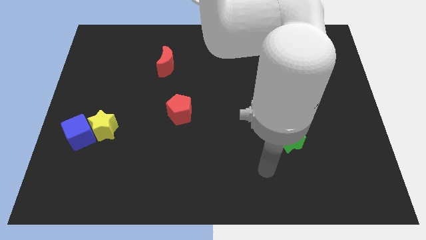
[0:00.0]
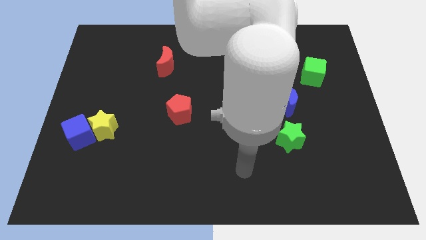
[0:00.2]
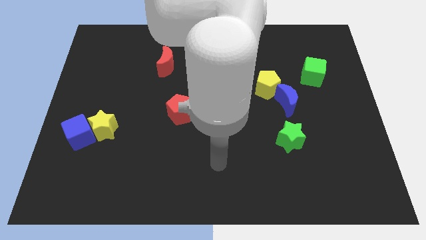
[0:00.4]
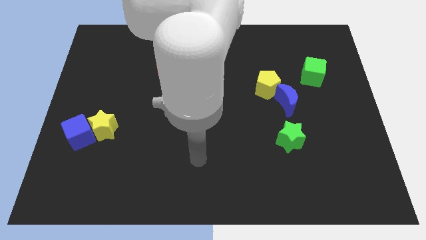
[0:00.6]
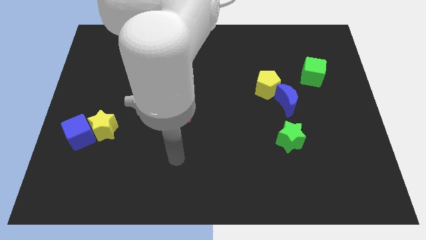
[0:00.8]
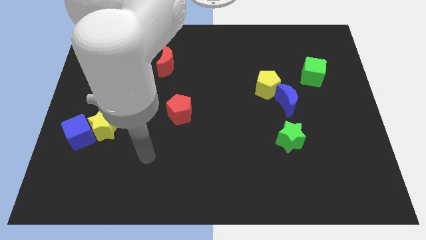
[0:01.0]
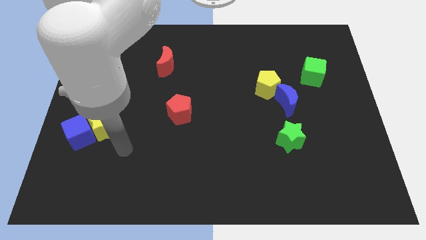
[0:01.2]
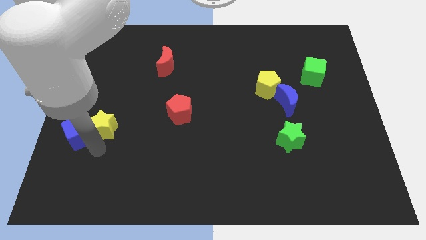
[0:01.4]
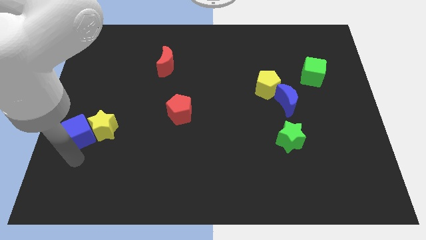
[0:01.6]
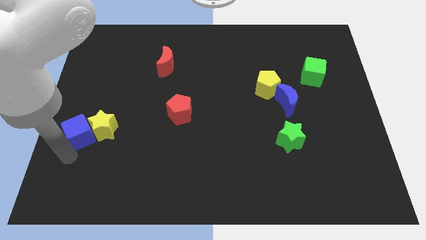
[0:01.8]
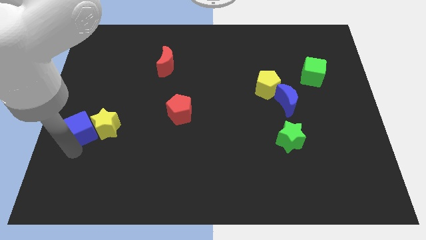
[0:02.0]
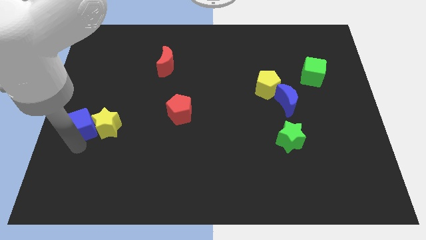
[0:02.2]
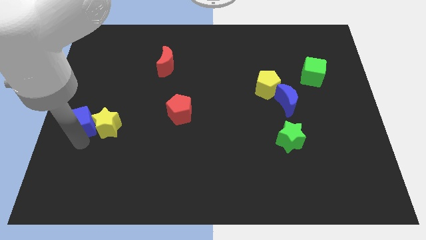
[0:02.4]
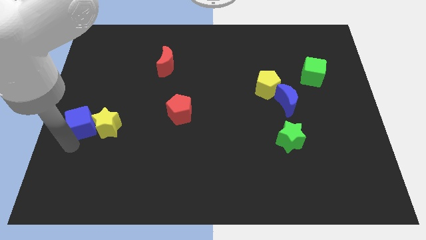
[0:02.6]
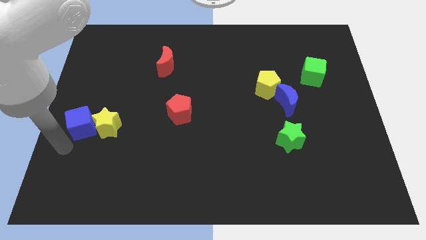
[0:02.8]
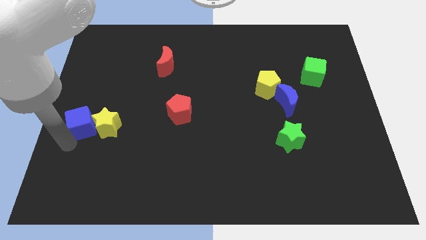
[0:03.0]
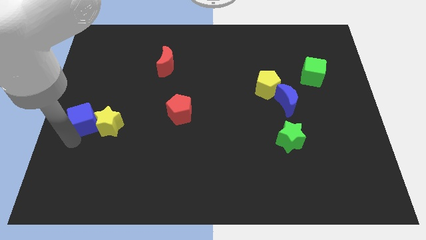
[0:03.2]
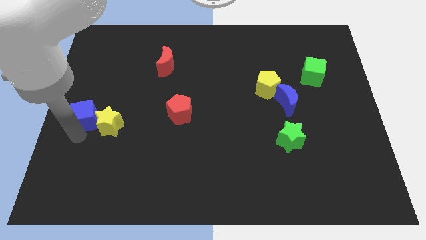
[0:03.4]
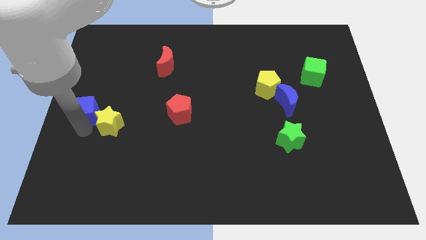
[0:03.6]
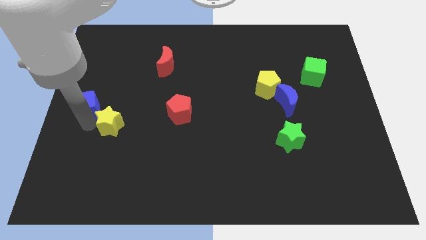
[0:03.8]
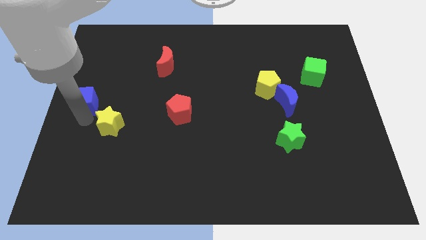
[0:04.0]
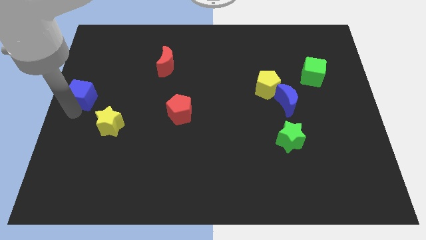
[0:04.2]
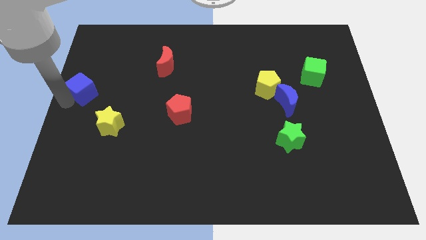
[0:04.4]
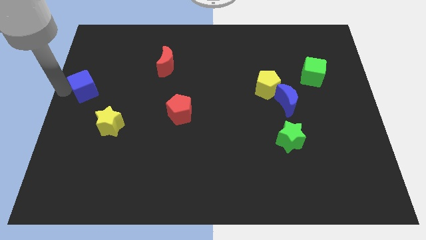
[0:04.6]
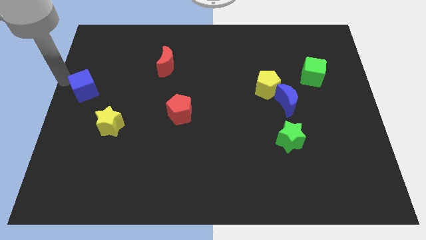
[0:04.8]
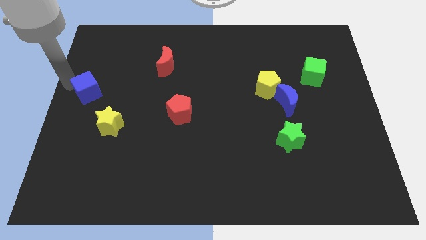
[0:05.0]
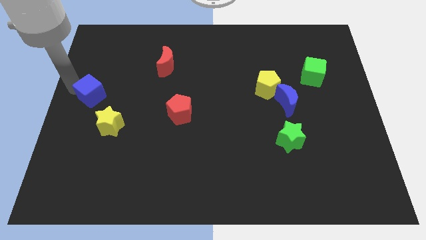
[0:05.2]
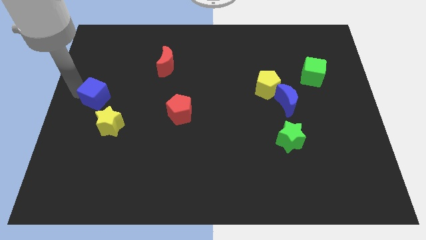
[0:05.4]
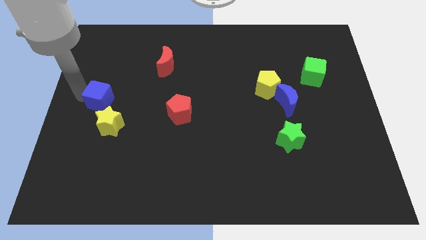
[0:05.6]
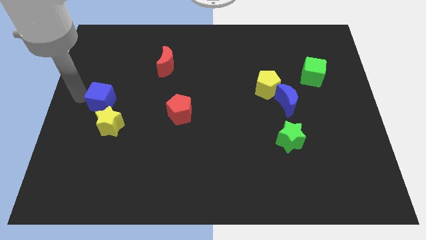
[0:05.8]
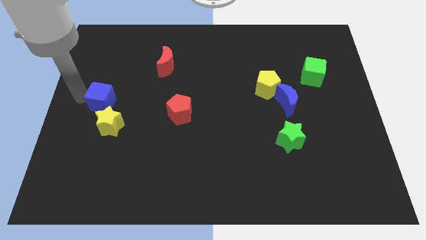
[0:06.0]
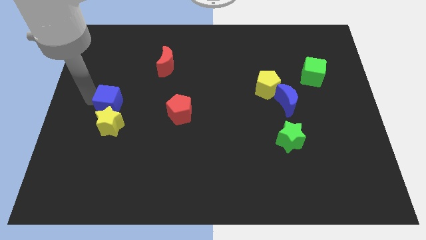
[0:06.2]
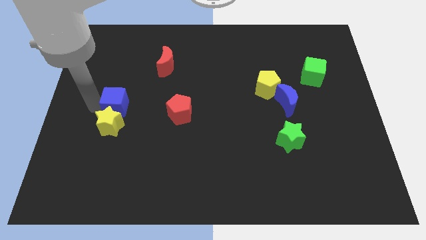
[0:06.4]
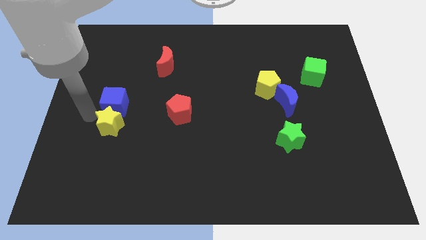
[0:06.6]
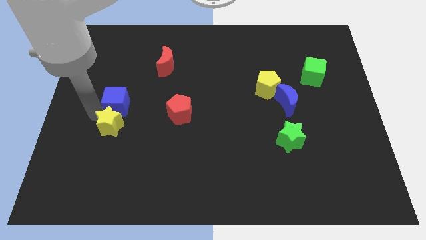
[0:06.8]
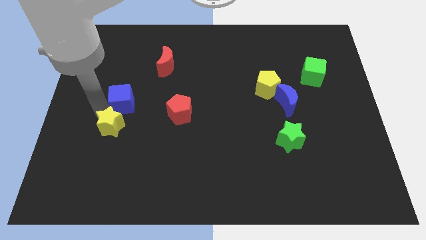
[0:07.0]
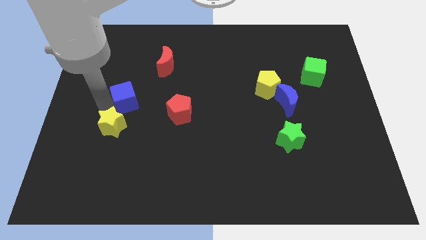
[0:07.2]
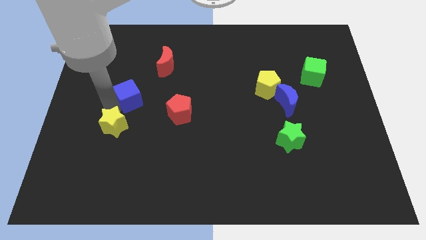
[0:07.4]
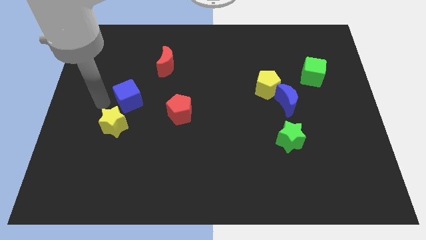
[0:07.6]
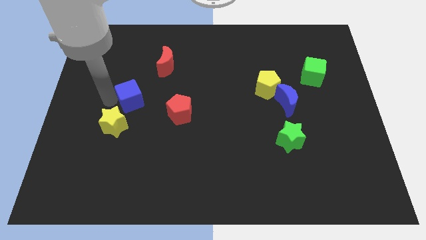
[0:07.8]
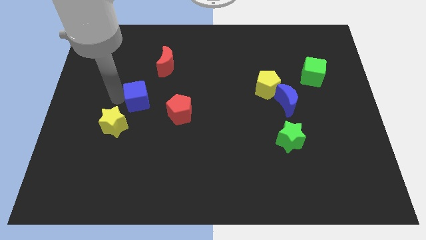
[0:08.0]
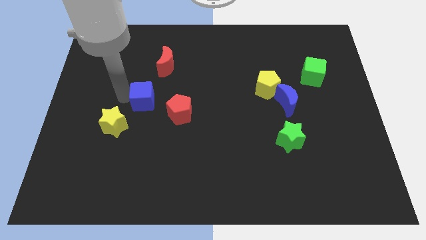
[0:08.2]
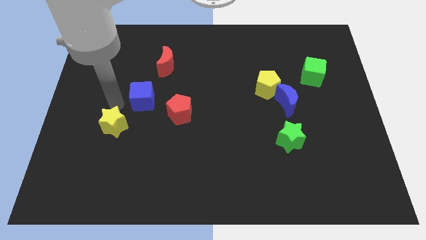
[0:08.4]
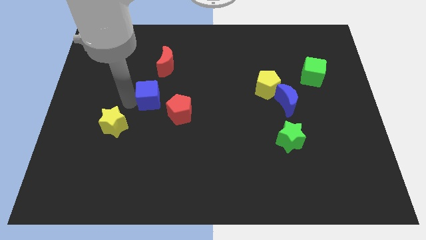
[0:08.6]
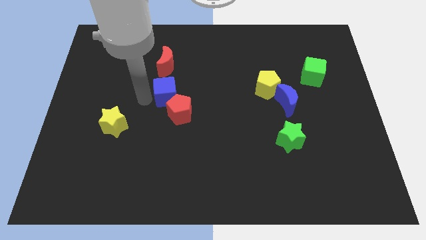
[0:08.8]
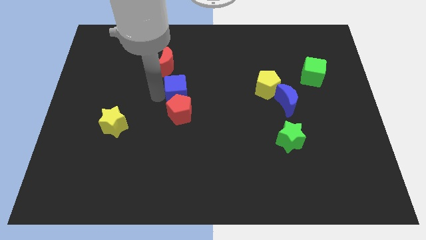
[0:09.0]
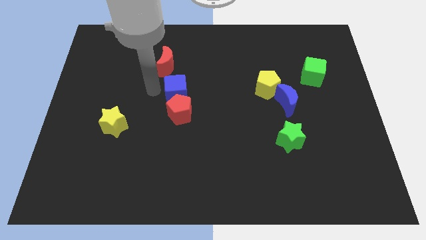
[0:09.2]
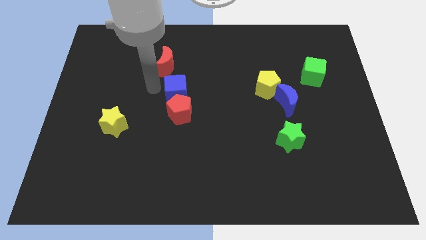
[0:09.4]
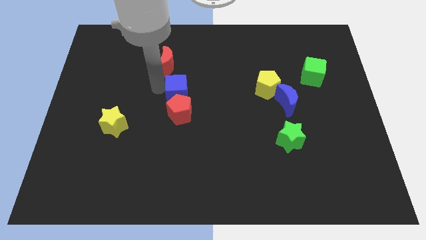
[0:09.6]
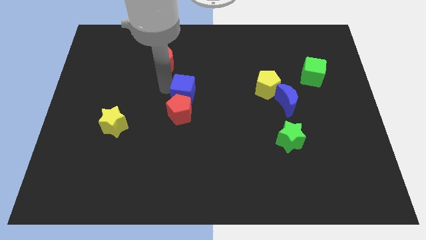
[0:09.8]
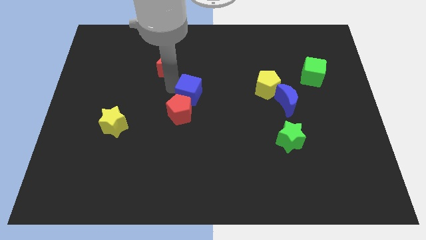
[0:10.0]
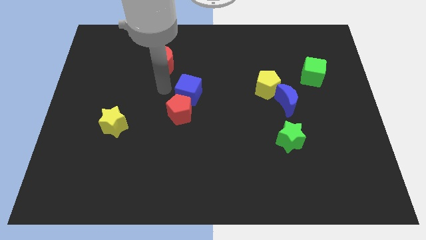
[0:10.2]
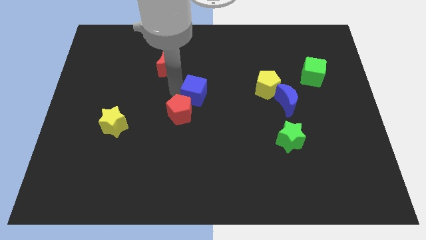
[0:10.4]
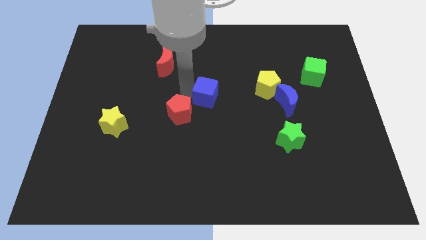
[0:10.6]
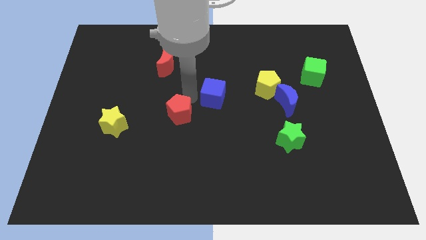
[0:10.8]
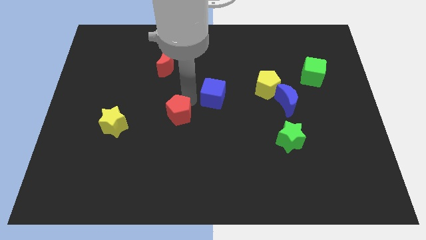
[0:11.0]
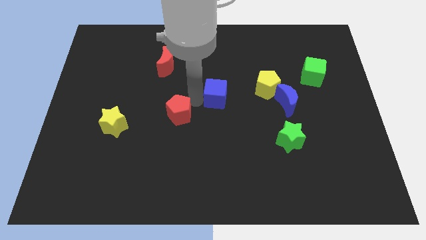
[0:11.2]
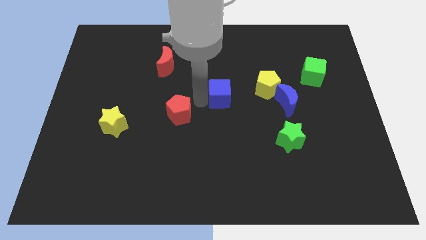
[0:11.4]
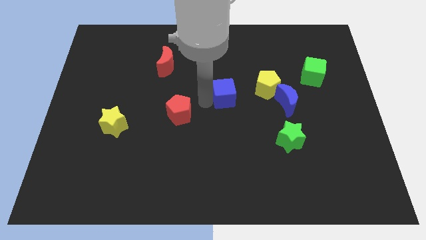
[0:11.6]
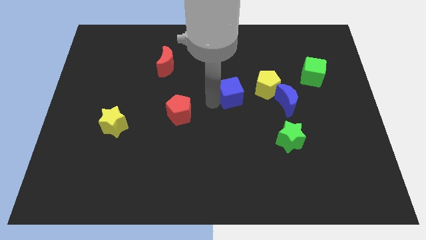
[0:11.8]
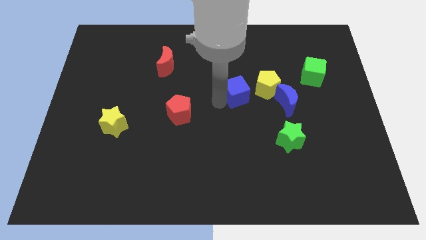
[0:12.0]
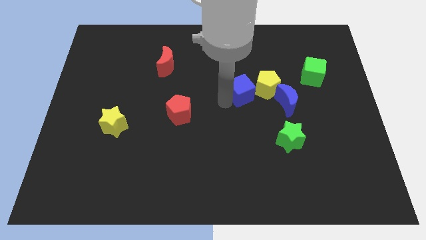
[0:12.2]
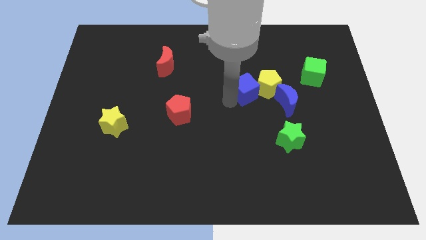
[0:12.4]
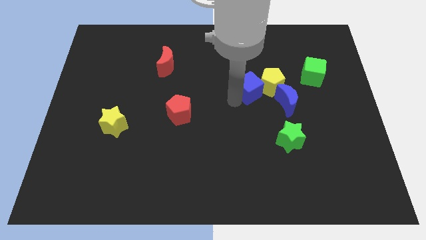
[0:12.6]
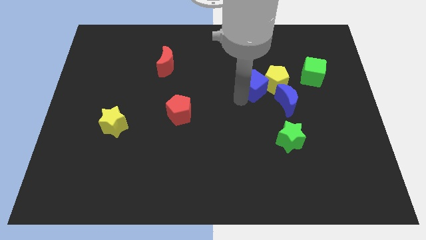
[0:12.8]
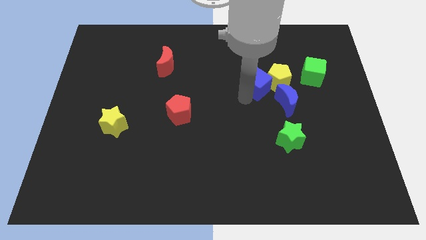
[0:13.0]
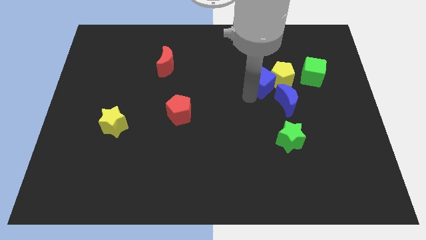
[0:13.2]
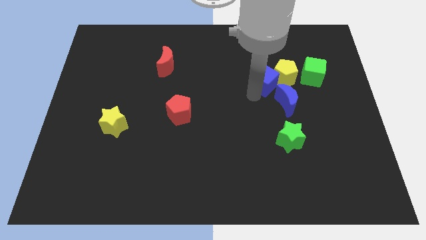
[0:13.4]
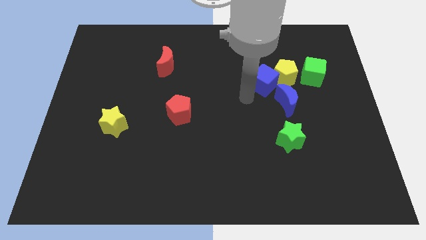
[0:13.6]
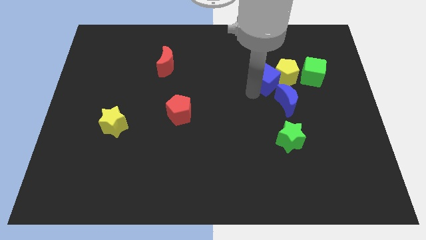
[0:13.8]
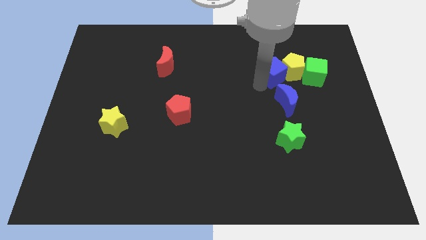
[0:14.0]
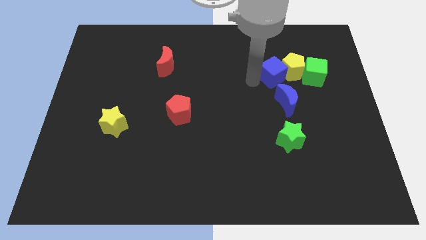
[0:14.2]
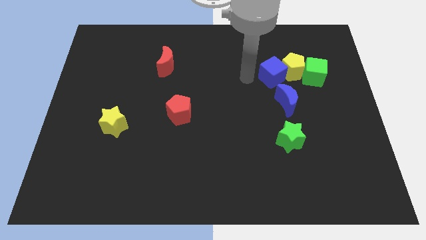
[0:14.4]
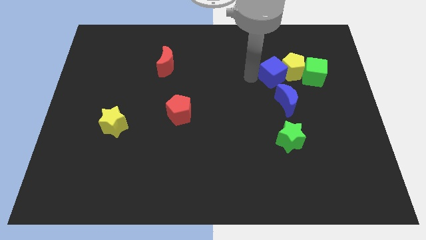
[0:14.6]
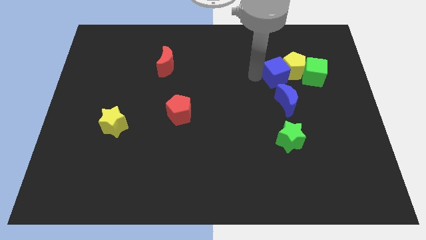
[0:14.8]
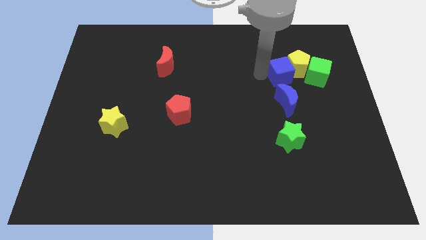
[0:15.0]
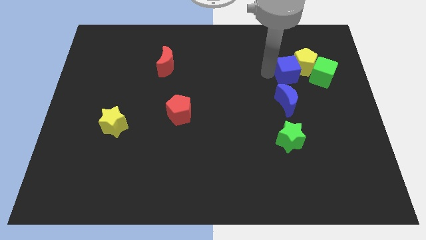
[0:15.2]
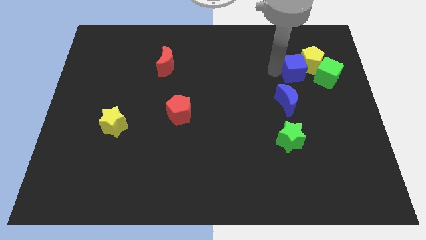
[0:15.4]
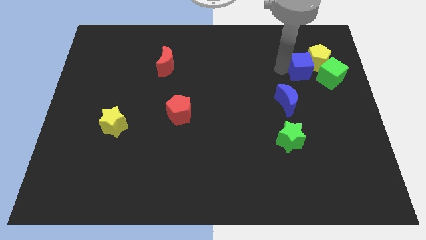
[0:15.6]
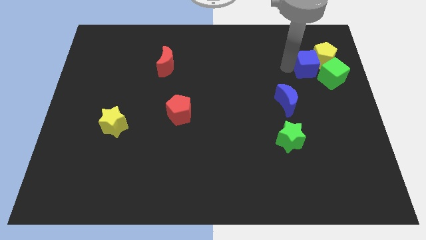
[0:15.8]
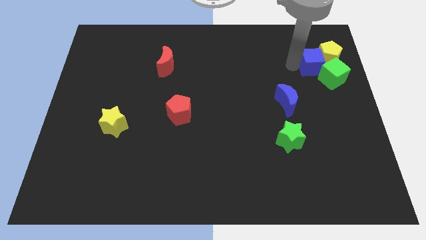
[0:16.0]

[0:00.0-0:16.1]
put the blue cube towards the green cube

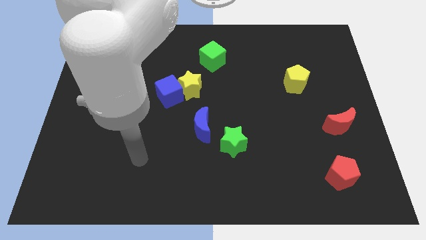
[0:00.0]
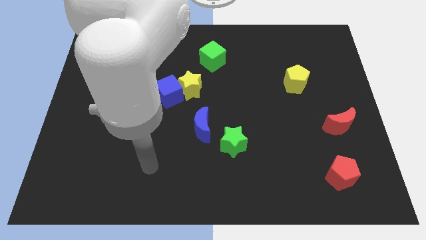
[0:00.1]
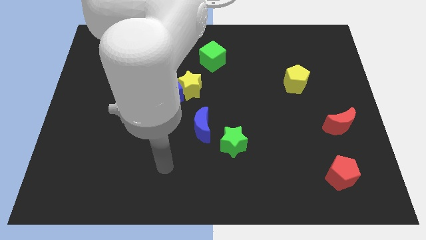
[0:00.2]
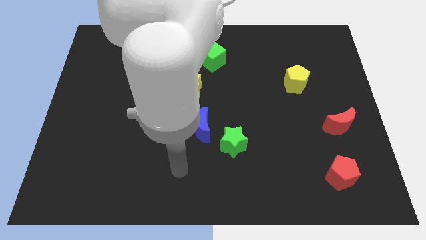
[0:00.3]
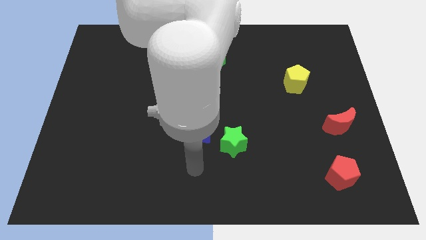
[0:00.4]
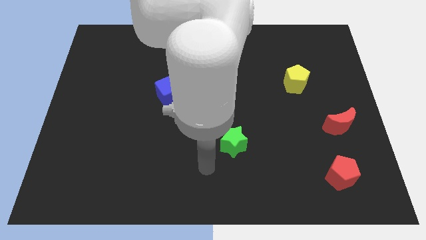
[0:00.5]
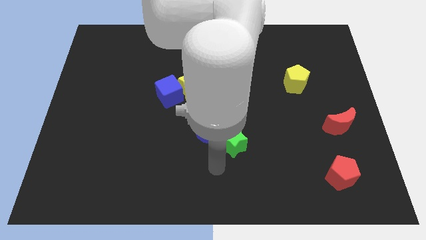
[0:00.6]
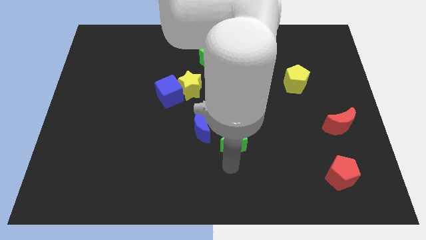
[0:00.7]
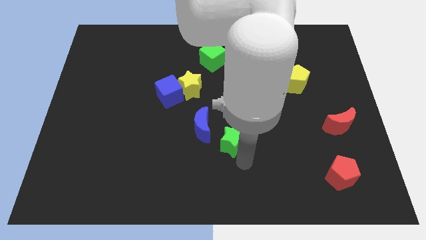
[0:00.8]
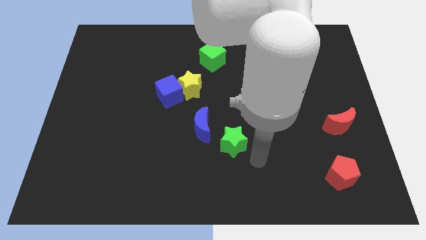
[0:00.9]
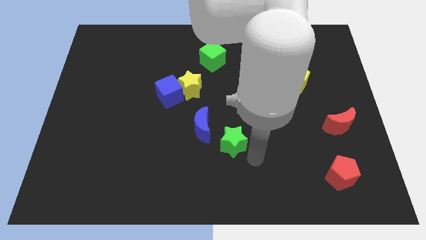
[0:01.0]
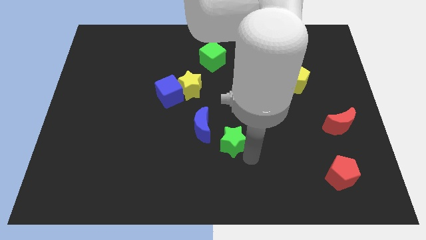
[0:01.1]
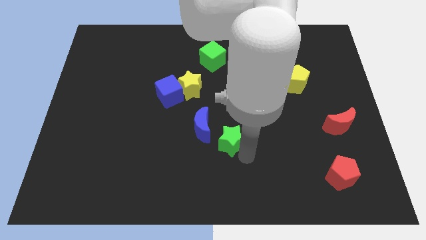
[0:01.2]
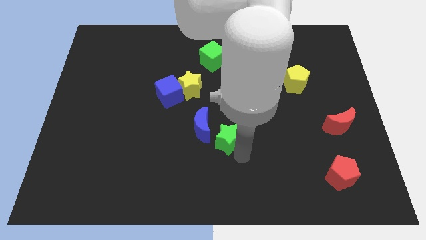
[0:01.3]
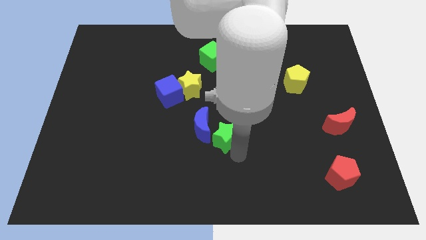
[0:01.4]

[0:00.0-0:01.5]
put the green star towards the blue moon
